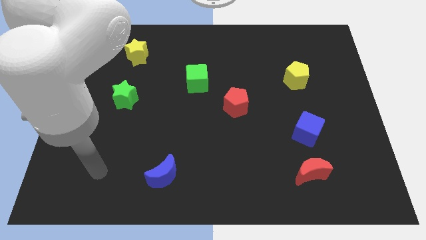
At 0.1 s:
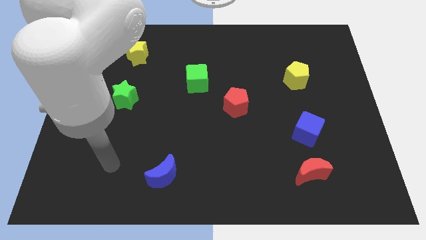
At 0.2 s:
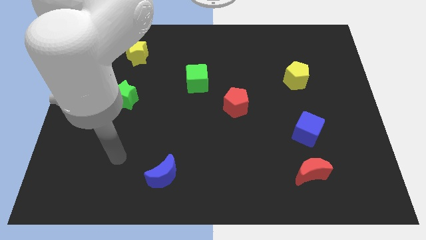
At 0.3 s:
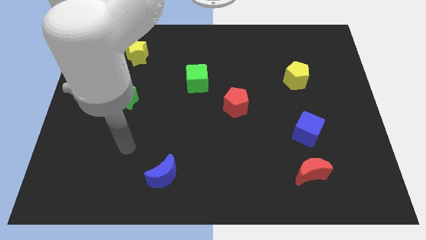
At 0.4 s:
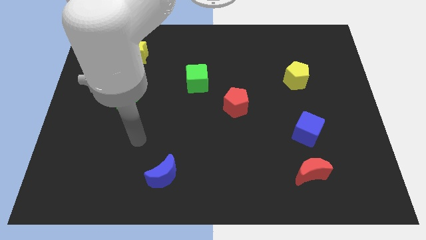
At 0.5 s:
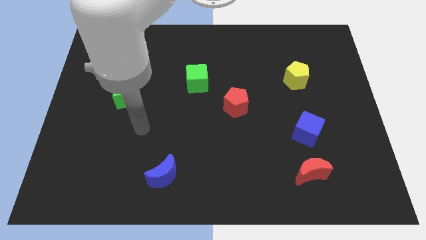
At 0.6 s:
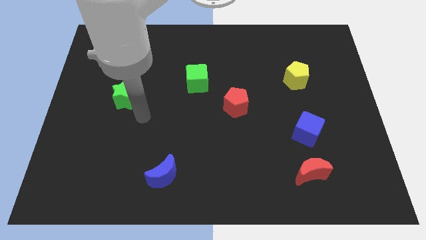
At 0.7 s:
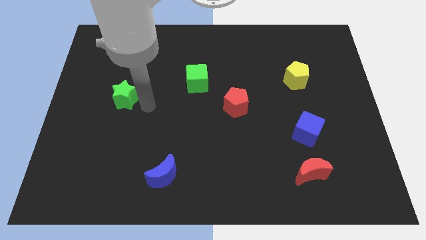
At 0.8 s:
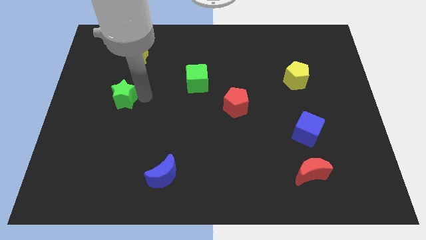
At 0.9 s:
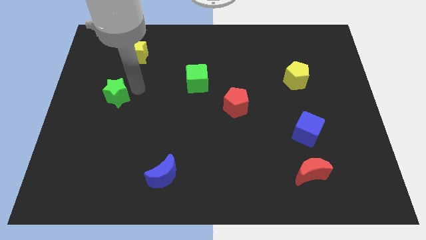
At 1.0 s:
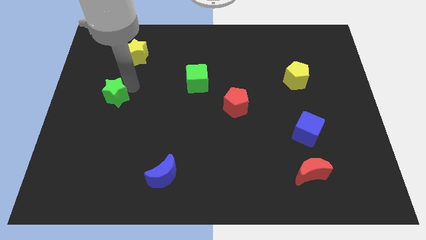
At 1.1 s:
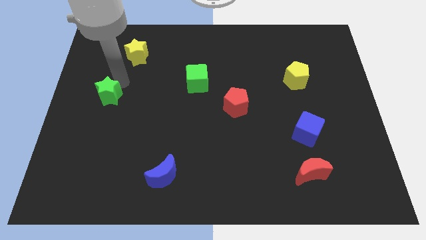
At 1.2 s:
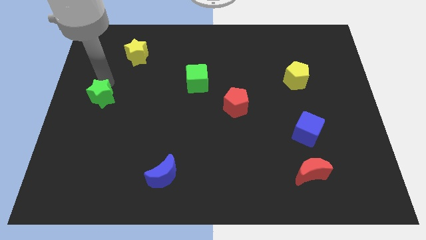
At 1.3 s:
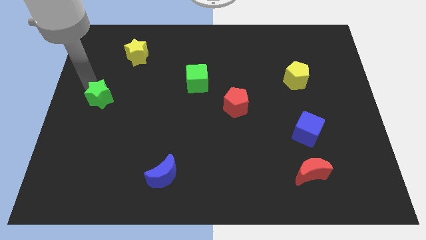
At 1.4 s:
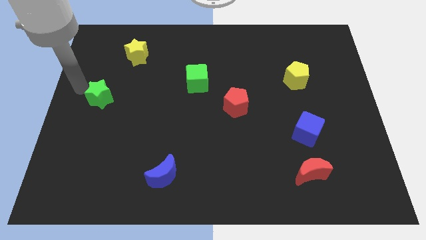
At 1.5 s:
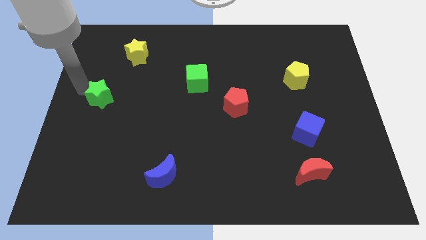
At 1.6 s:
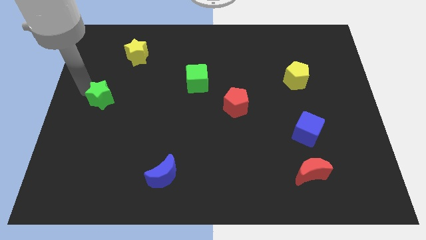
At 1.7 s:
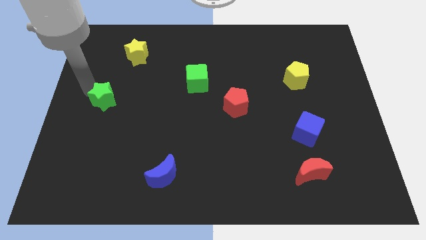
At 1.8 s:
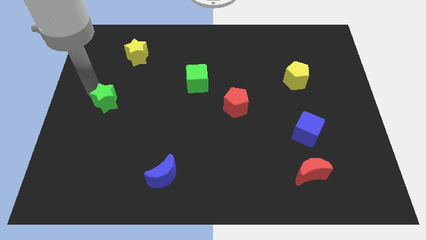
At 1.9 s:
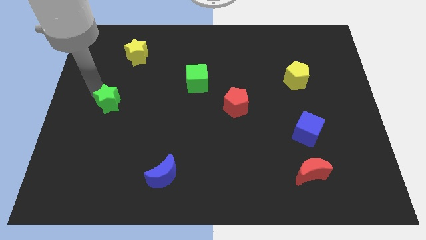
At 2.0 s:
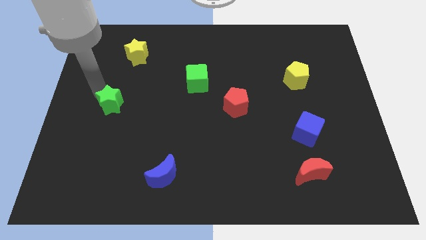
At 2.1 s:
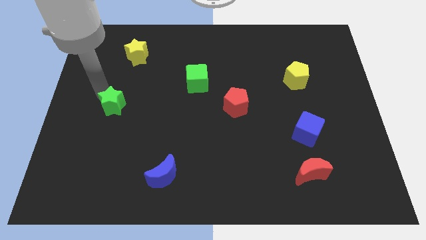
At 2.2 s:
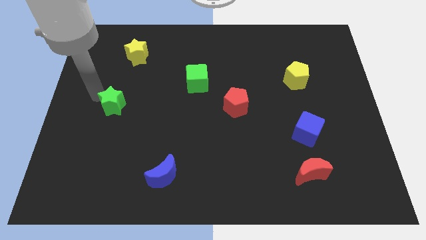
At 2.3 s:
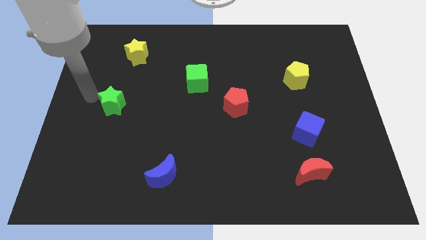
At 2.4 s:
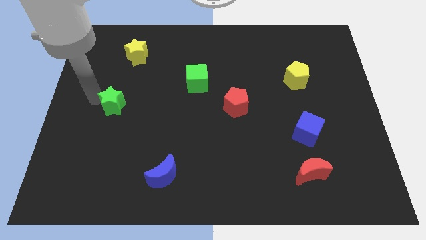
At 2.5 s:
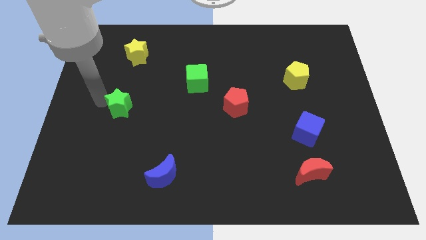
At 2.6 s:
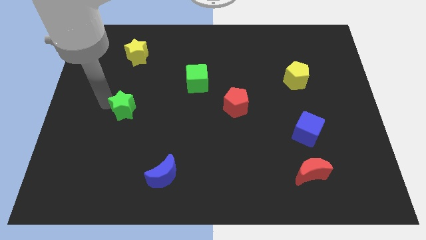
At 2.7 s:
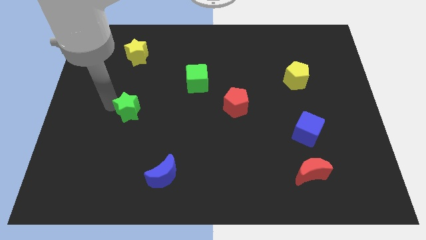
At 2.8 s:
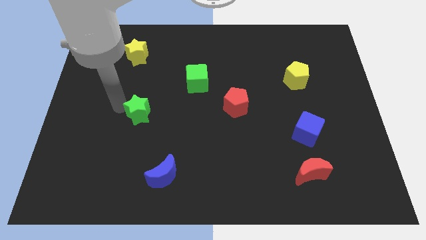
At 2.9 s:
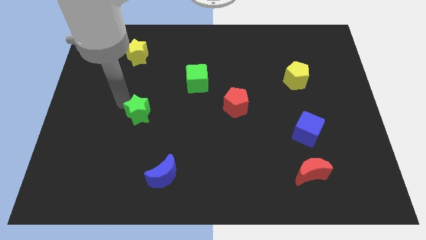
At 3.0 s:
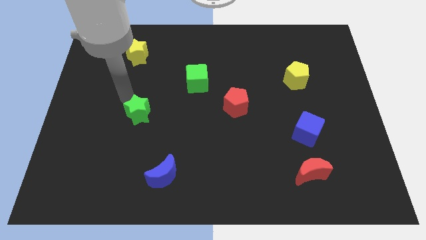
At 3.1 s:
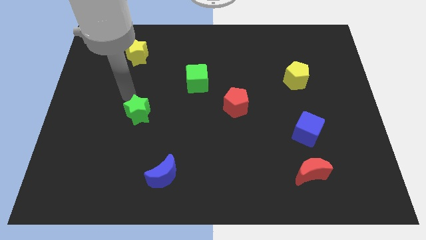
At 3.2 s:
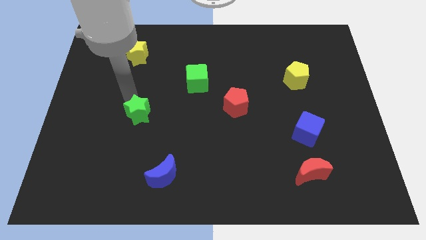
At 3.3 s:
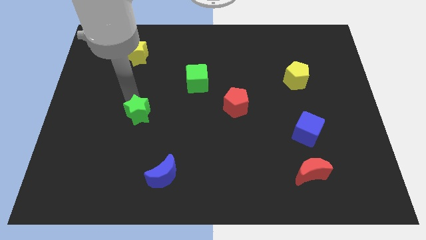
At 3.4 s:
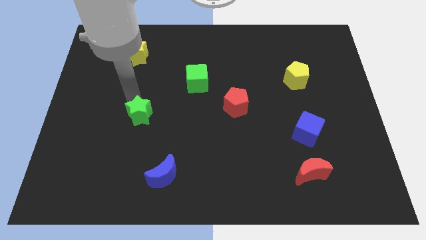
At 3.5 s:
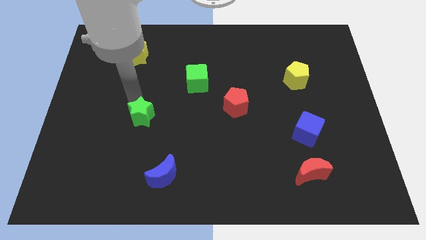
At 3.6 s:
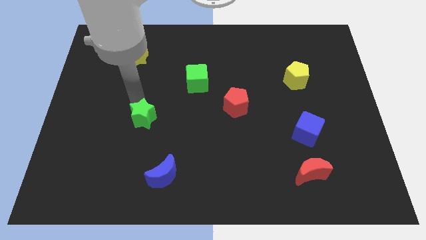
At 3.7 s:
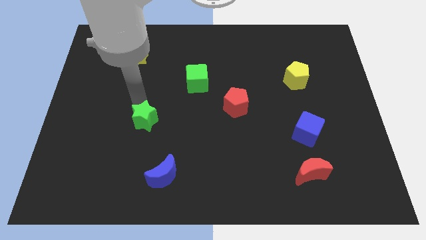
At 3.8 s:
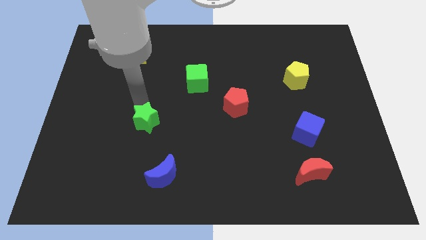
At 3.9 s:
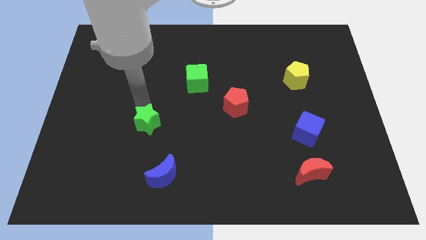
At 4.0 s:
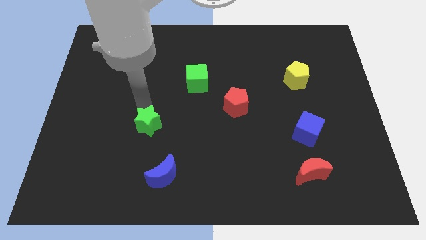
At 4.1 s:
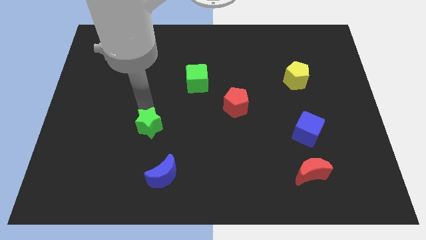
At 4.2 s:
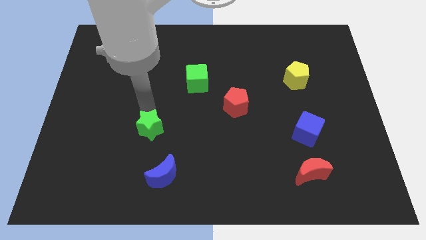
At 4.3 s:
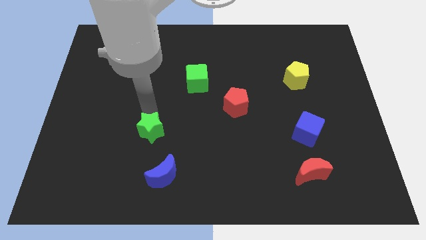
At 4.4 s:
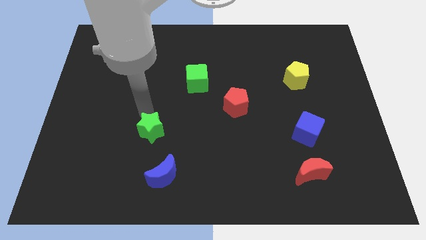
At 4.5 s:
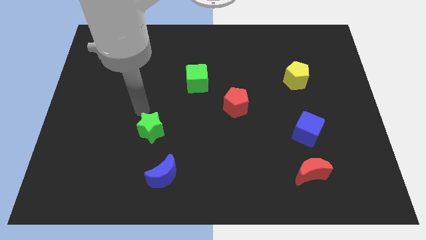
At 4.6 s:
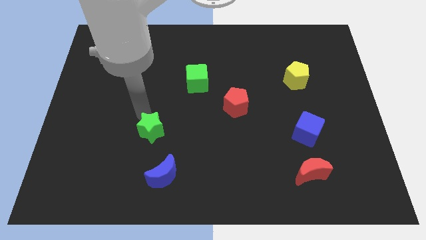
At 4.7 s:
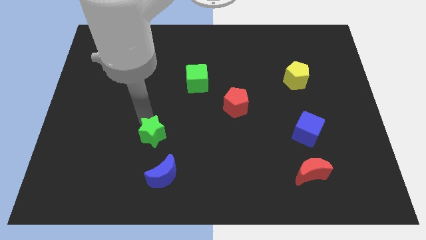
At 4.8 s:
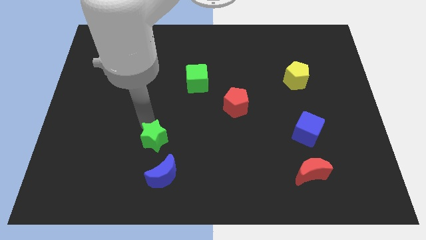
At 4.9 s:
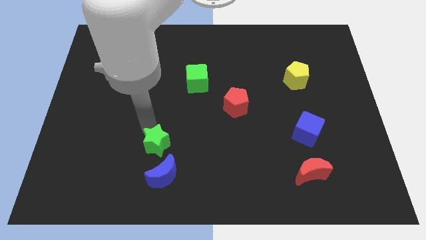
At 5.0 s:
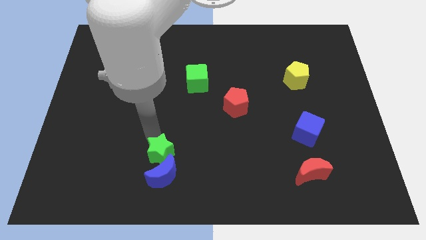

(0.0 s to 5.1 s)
move the green star to the blue moon

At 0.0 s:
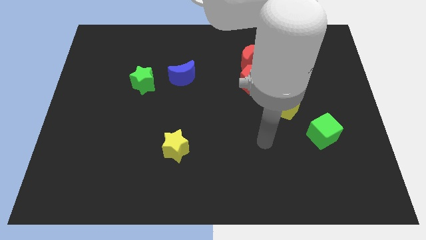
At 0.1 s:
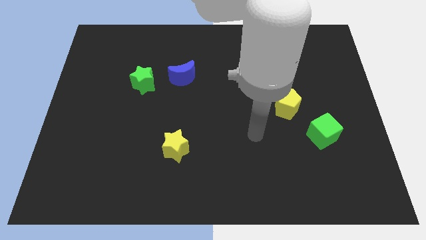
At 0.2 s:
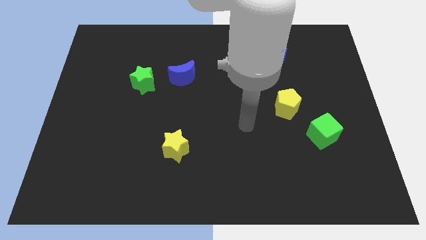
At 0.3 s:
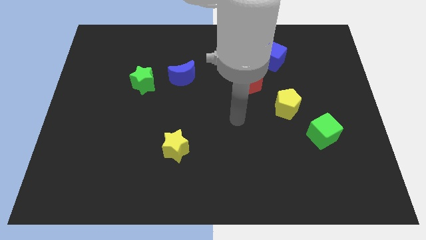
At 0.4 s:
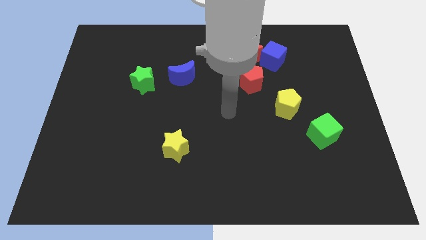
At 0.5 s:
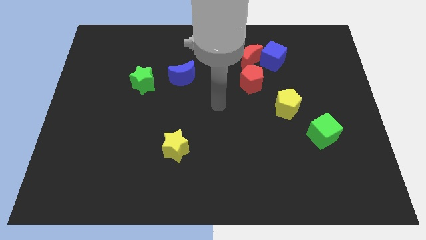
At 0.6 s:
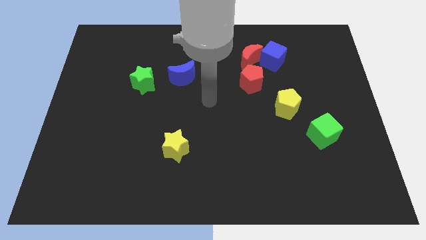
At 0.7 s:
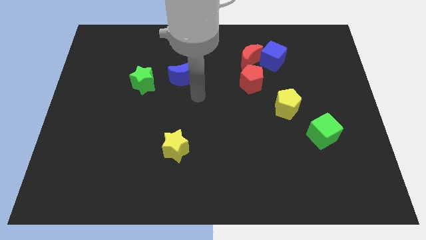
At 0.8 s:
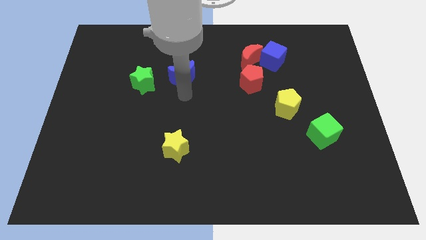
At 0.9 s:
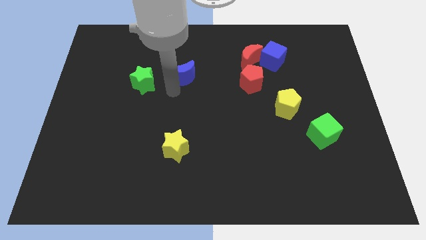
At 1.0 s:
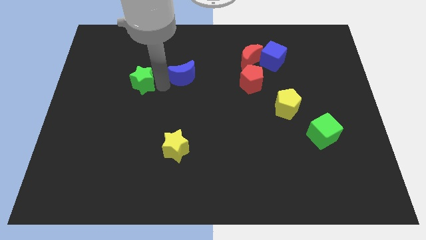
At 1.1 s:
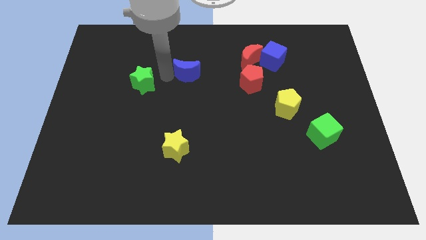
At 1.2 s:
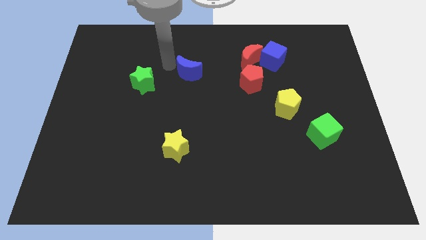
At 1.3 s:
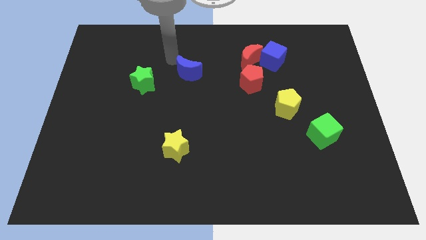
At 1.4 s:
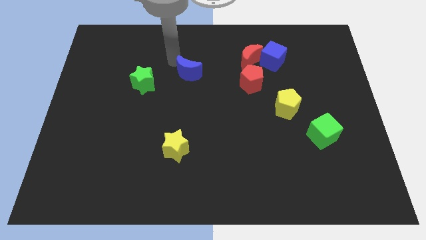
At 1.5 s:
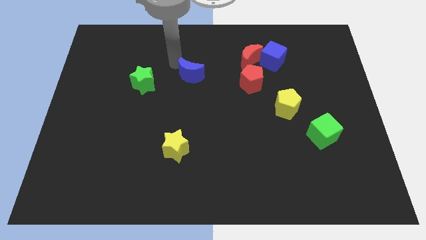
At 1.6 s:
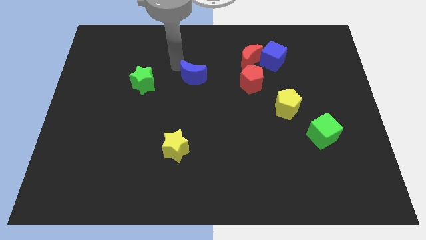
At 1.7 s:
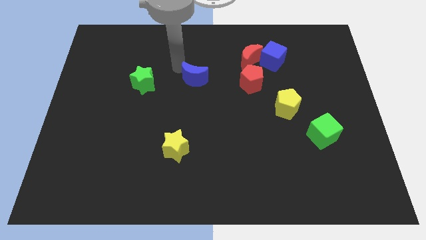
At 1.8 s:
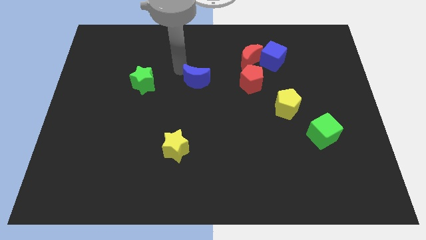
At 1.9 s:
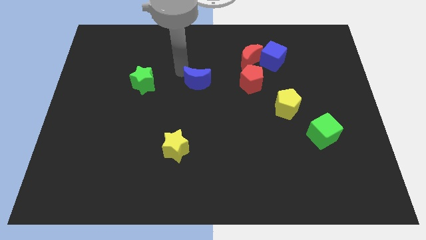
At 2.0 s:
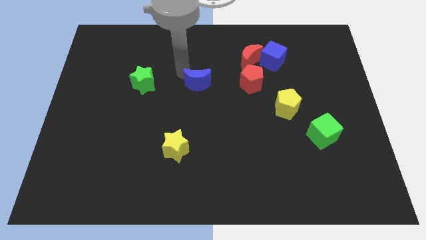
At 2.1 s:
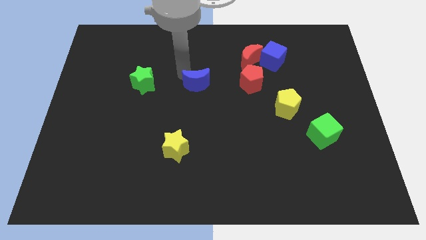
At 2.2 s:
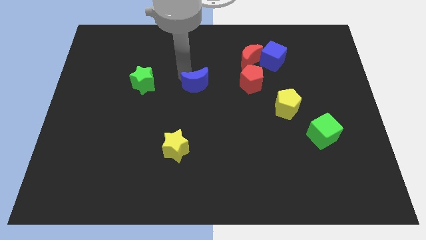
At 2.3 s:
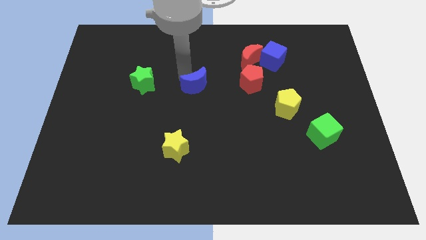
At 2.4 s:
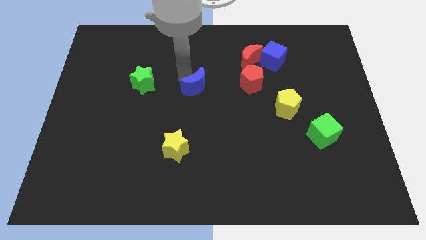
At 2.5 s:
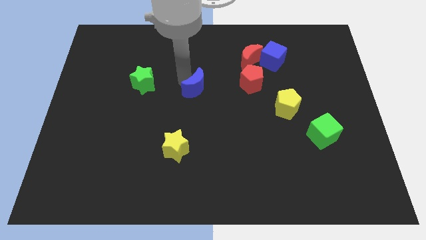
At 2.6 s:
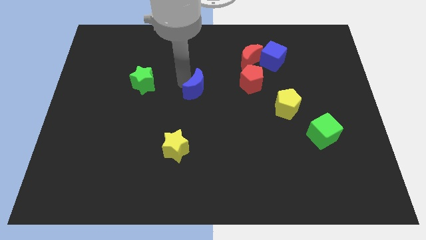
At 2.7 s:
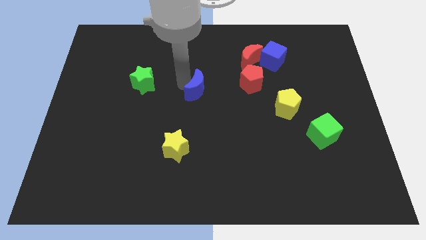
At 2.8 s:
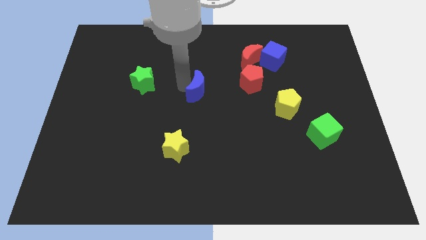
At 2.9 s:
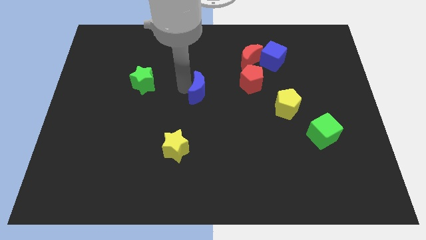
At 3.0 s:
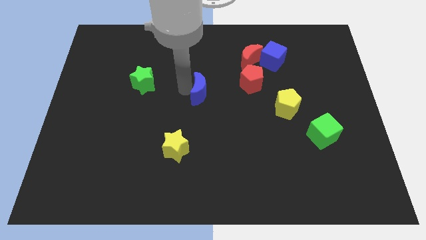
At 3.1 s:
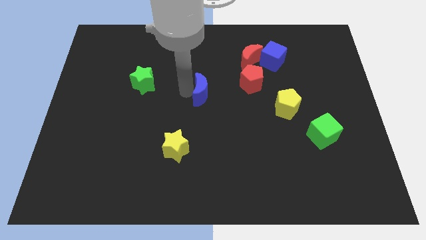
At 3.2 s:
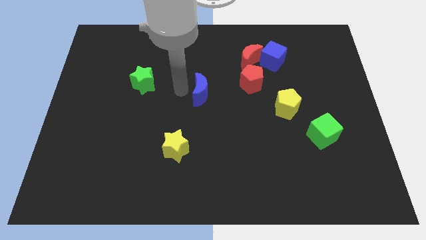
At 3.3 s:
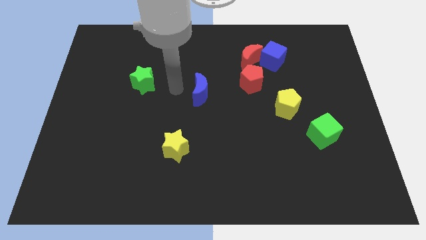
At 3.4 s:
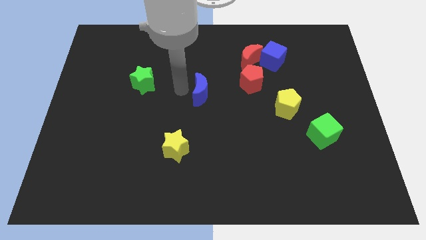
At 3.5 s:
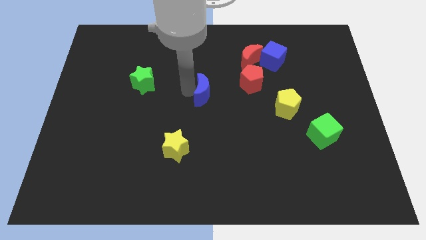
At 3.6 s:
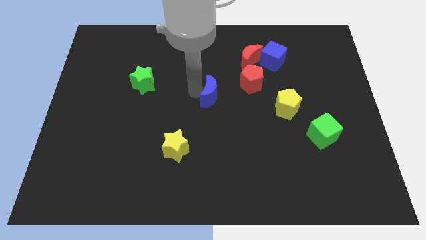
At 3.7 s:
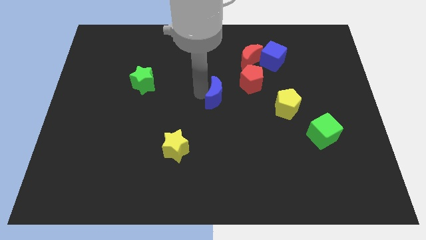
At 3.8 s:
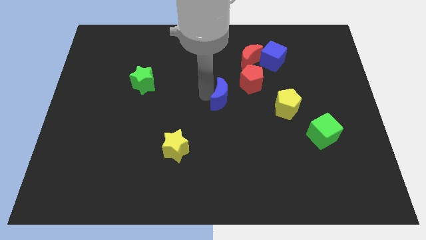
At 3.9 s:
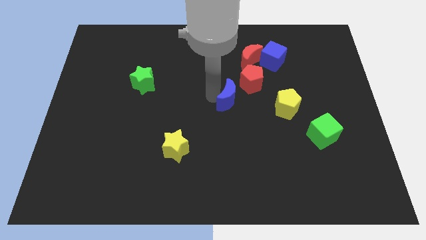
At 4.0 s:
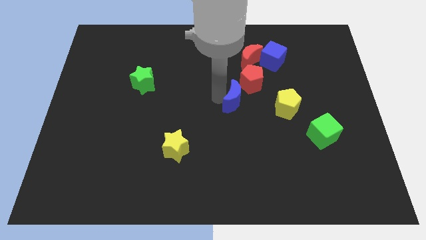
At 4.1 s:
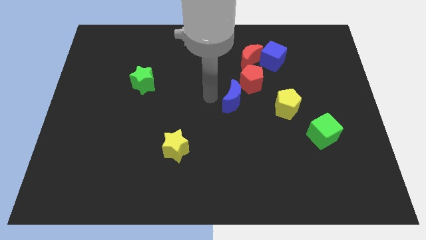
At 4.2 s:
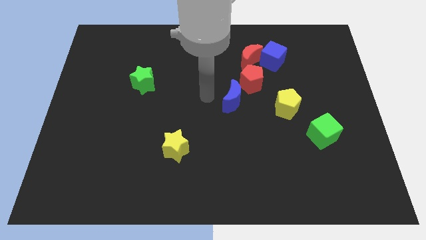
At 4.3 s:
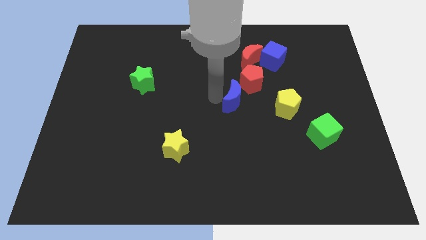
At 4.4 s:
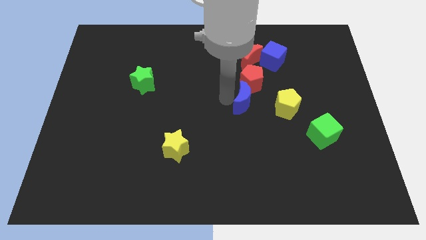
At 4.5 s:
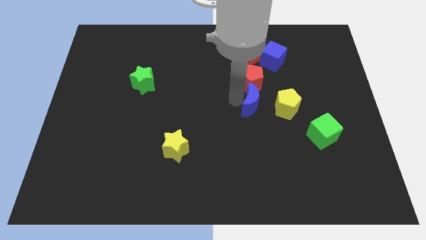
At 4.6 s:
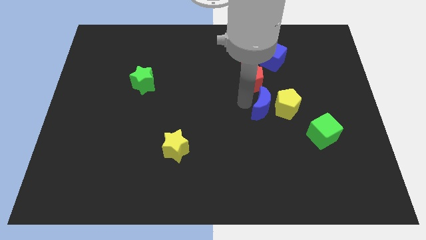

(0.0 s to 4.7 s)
slide the blue moon close to the yellow pentagon
